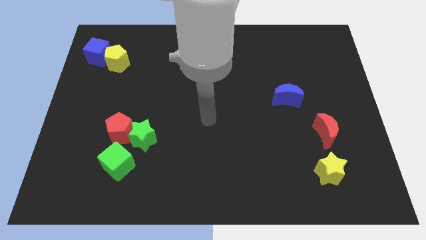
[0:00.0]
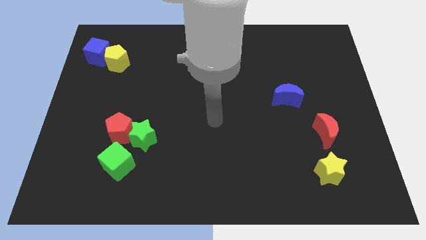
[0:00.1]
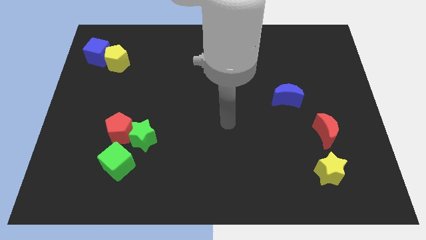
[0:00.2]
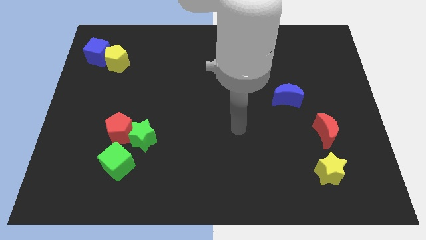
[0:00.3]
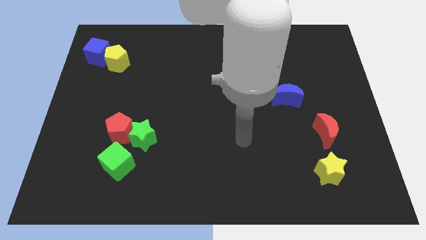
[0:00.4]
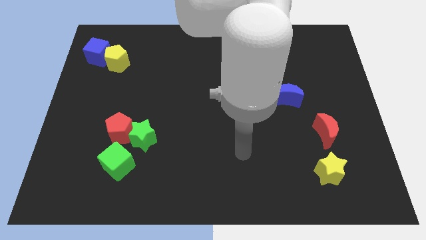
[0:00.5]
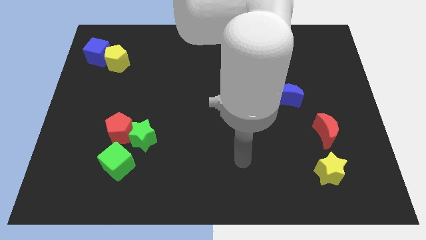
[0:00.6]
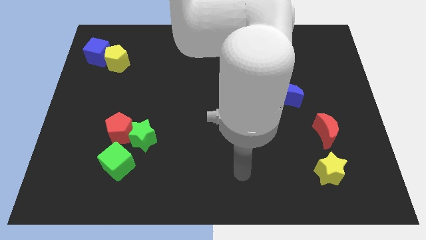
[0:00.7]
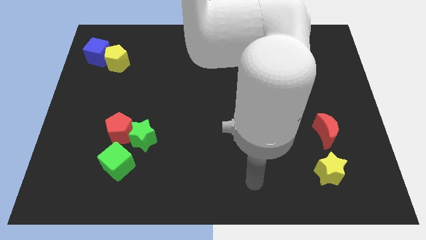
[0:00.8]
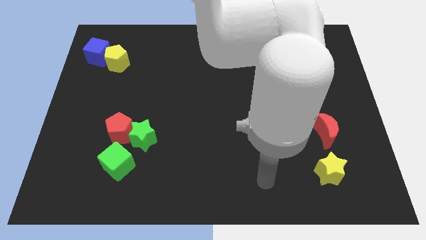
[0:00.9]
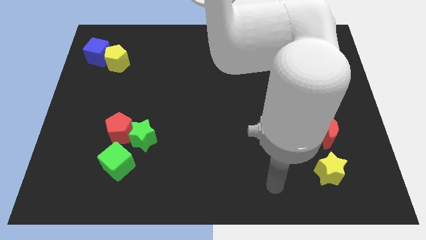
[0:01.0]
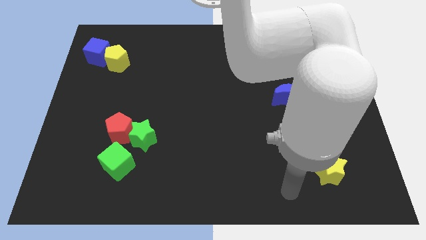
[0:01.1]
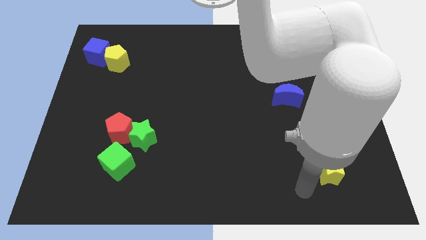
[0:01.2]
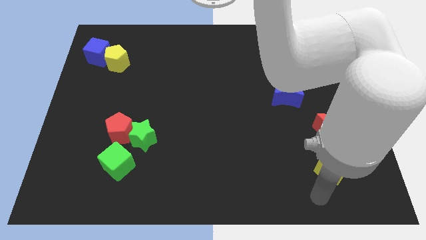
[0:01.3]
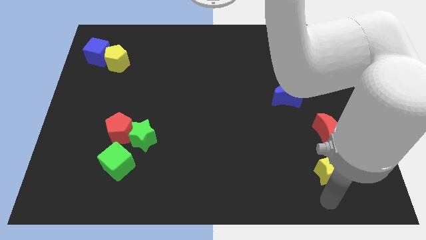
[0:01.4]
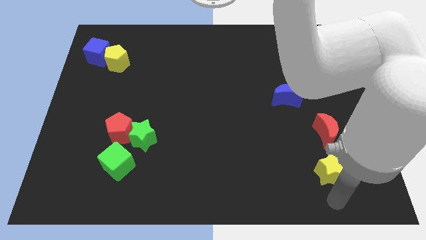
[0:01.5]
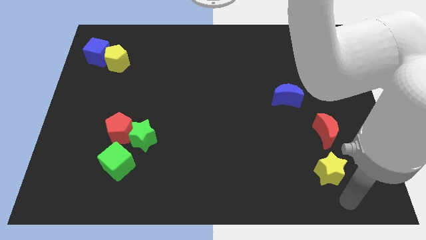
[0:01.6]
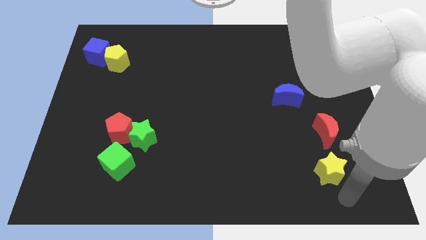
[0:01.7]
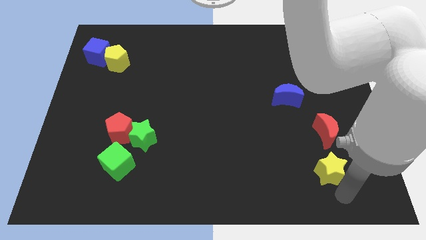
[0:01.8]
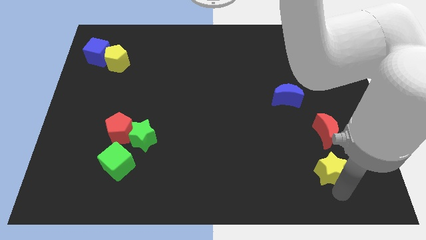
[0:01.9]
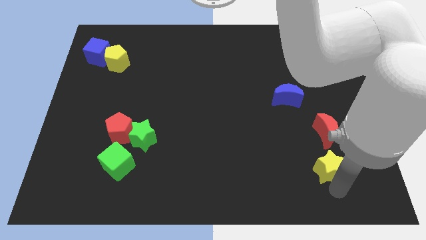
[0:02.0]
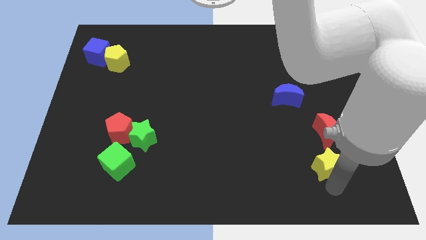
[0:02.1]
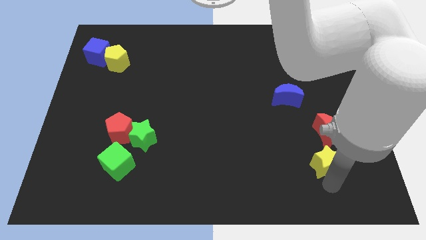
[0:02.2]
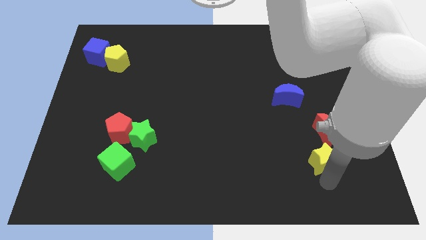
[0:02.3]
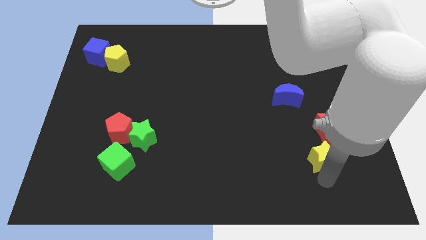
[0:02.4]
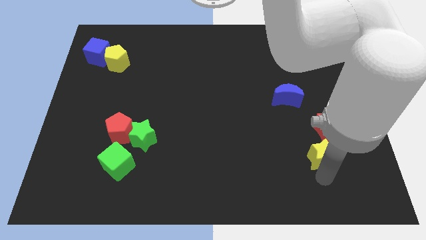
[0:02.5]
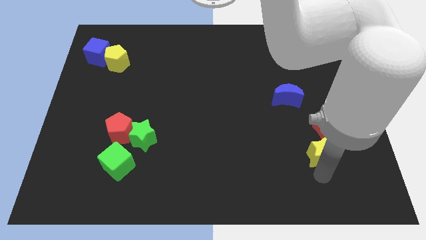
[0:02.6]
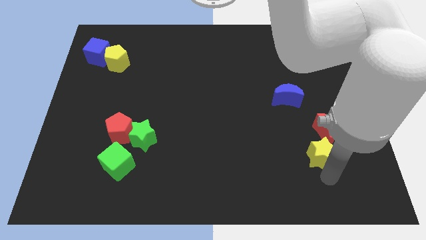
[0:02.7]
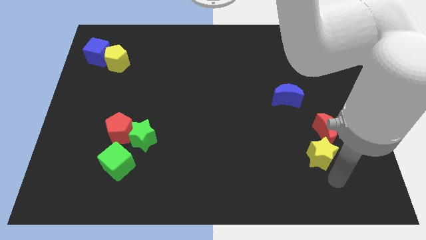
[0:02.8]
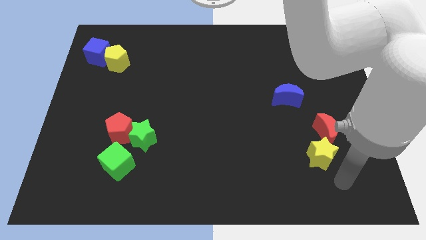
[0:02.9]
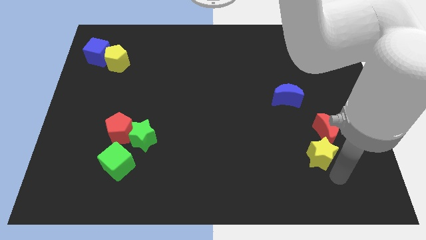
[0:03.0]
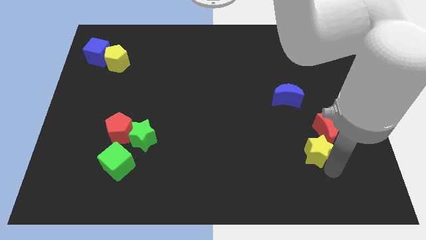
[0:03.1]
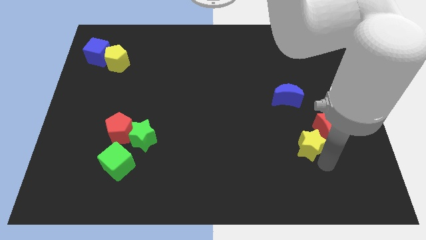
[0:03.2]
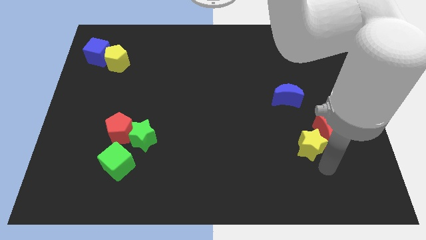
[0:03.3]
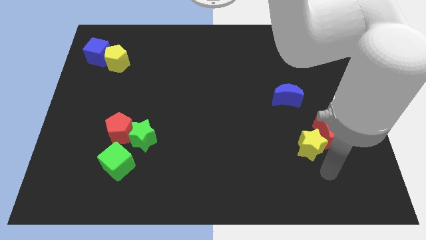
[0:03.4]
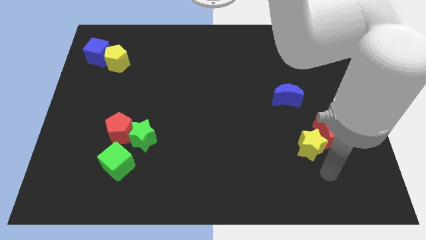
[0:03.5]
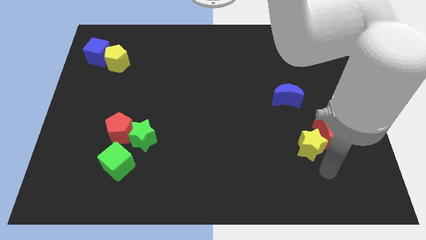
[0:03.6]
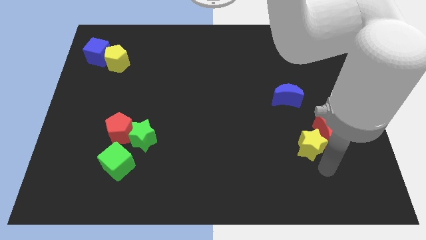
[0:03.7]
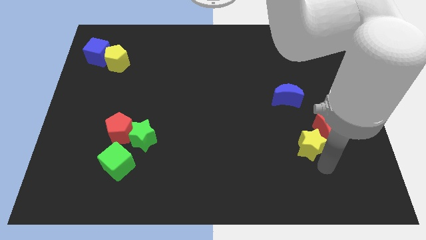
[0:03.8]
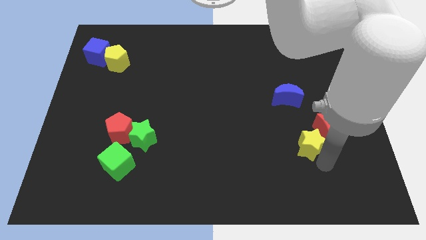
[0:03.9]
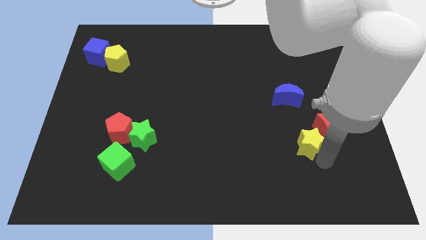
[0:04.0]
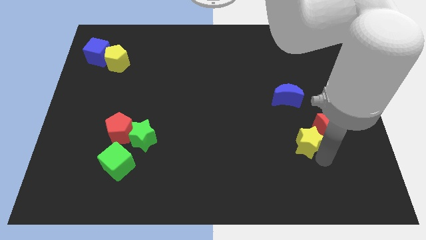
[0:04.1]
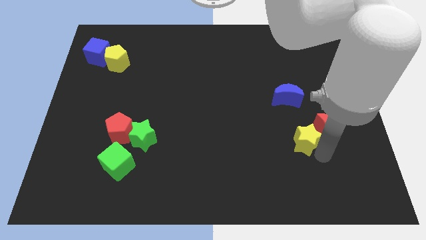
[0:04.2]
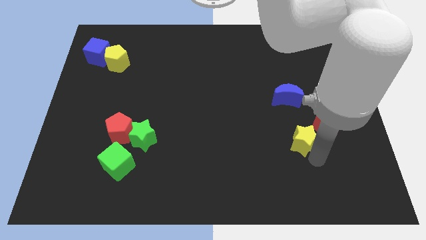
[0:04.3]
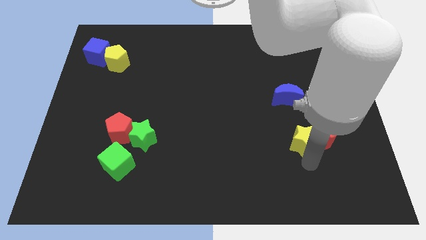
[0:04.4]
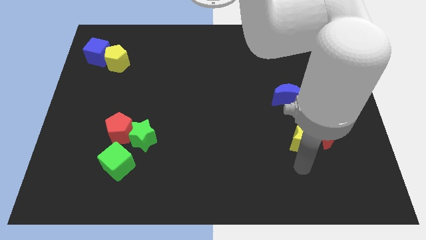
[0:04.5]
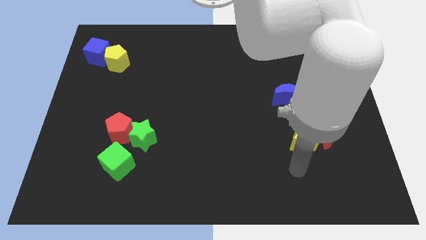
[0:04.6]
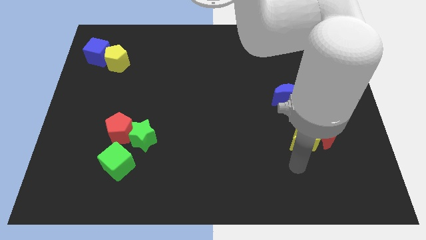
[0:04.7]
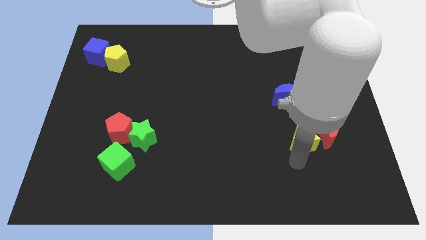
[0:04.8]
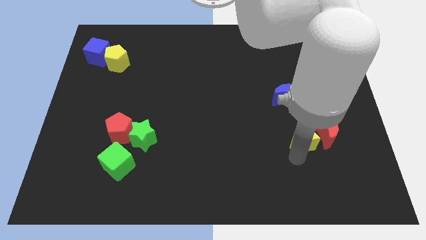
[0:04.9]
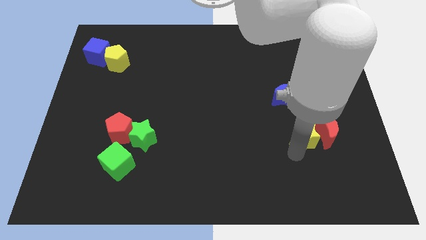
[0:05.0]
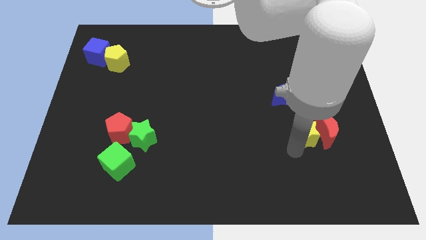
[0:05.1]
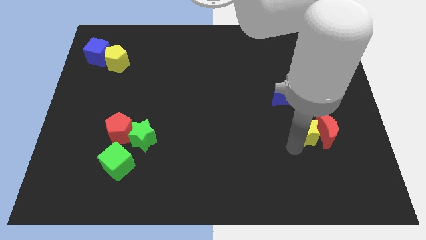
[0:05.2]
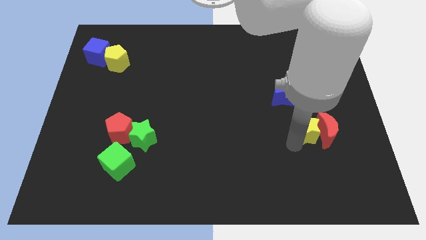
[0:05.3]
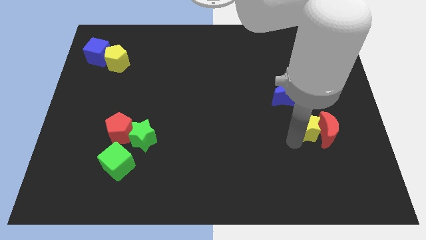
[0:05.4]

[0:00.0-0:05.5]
move the yellow star to the bottom right side of the blue moon

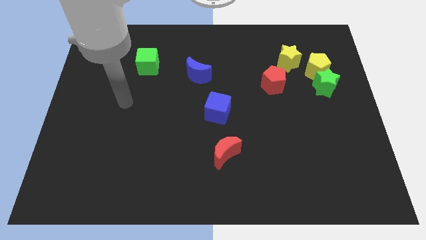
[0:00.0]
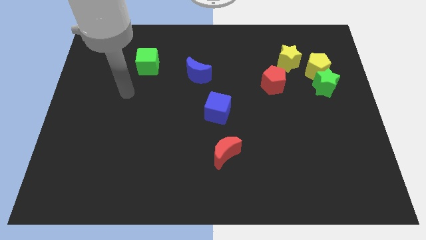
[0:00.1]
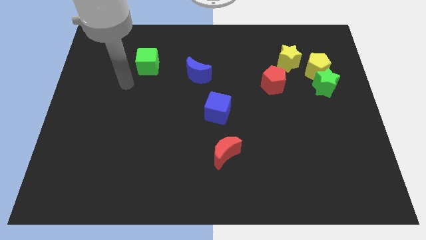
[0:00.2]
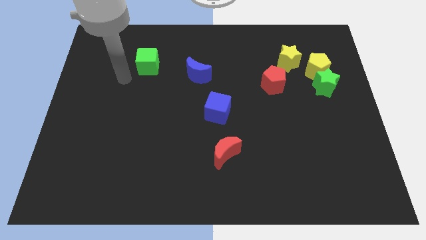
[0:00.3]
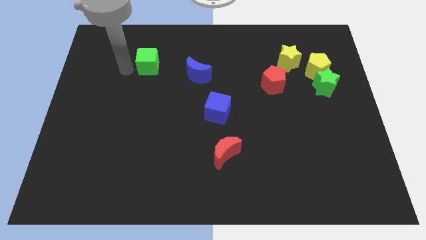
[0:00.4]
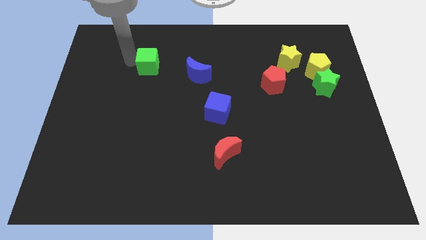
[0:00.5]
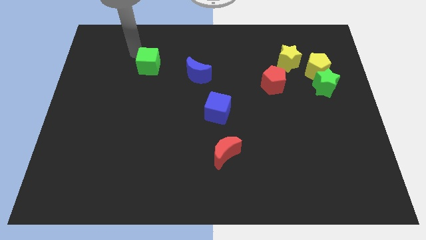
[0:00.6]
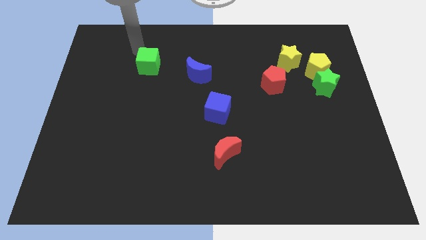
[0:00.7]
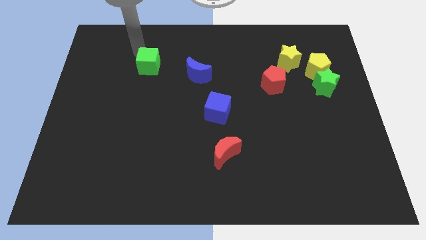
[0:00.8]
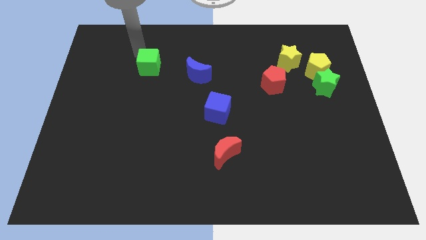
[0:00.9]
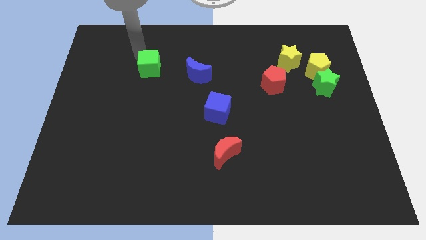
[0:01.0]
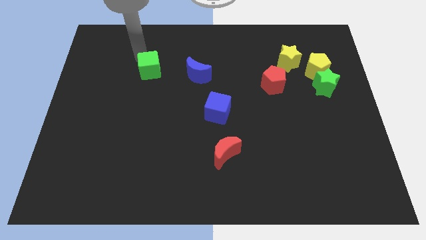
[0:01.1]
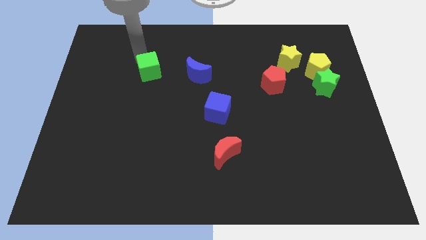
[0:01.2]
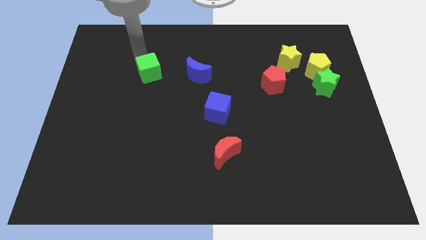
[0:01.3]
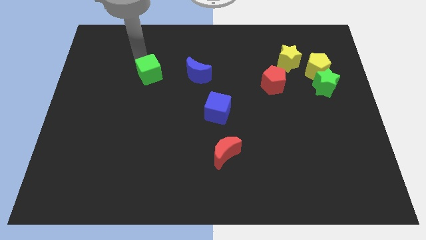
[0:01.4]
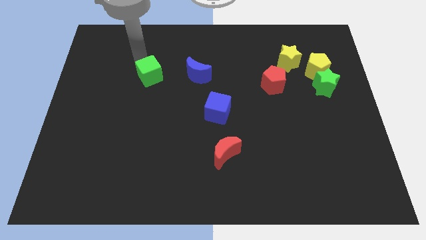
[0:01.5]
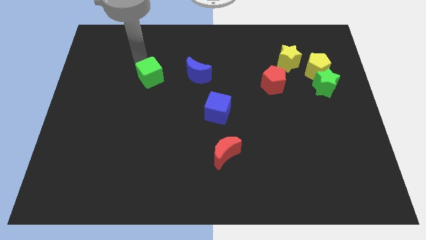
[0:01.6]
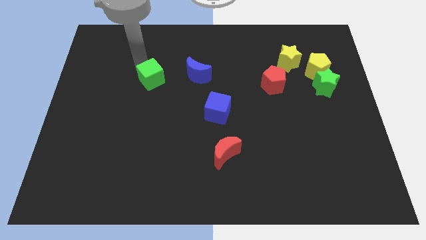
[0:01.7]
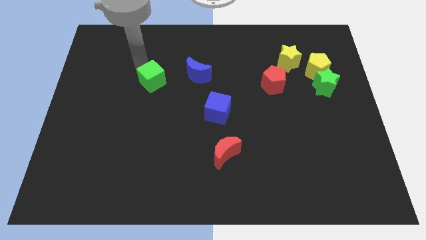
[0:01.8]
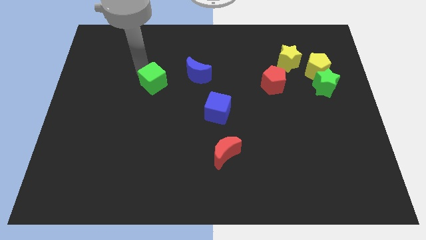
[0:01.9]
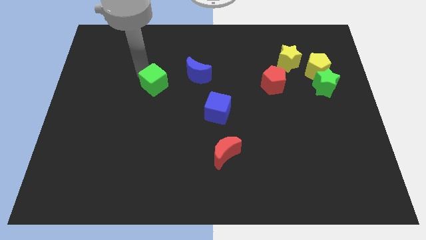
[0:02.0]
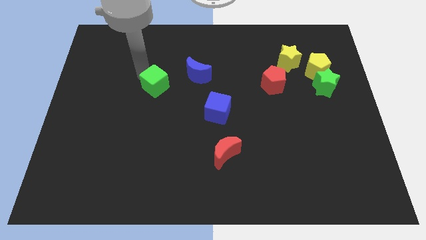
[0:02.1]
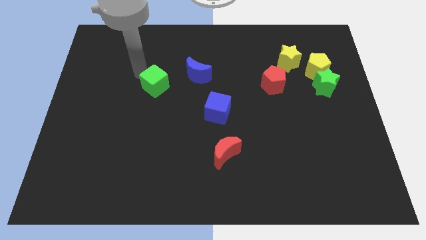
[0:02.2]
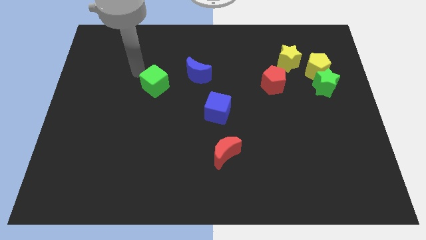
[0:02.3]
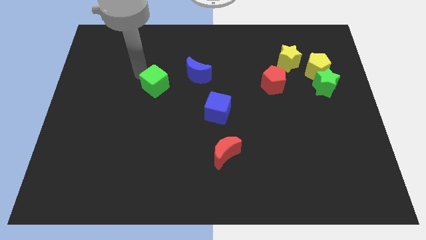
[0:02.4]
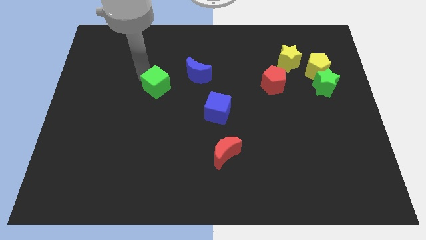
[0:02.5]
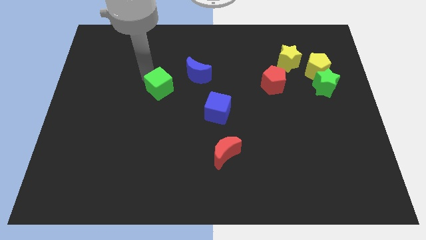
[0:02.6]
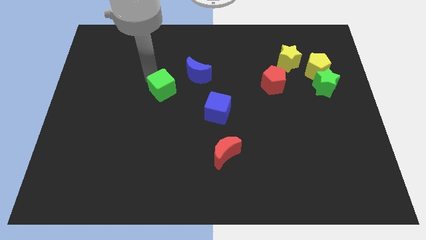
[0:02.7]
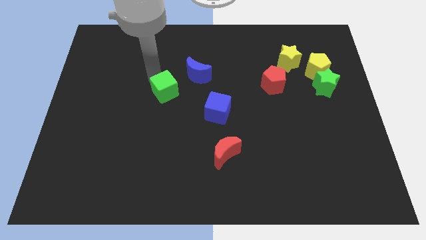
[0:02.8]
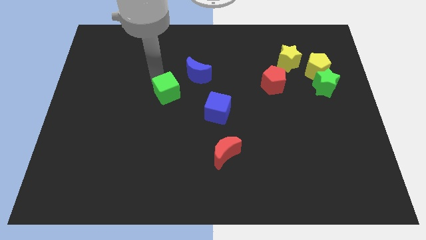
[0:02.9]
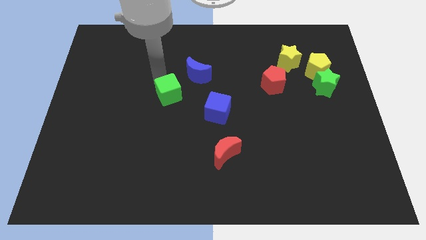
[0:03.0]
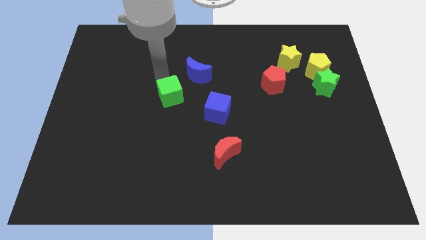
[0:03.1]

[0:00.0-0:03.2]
slide the green cube just left of the blue cube
